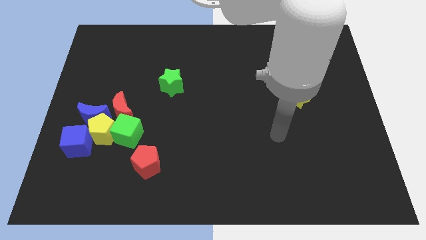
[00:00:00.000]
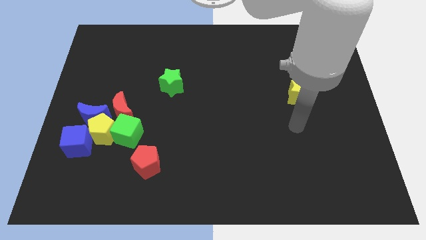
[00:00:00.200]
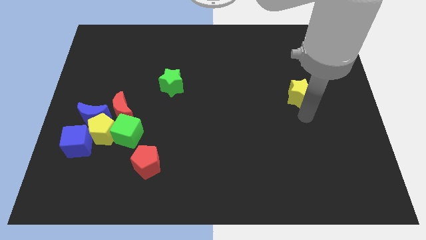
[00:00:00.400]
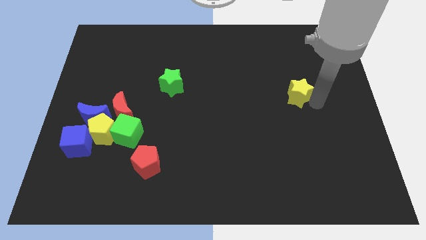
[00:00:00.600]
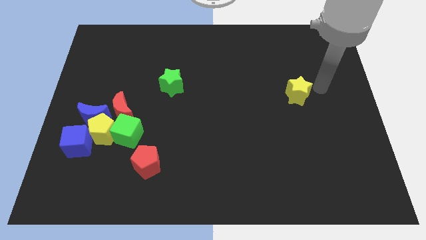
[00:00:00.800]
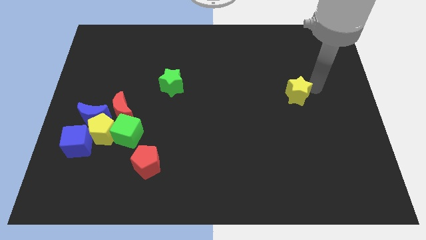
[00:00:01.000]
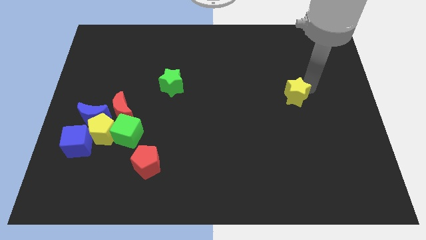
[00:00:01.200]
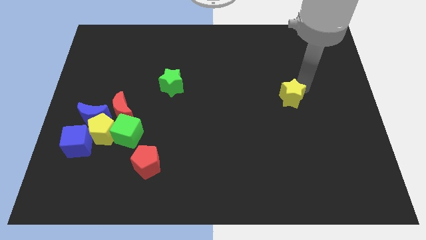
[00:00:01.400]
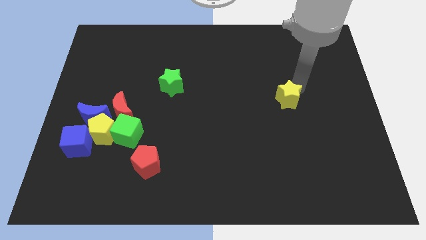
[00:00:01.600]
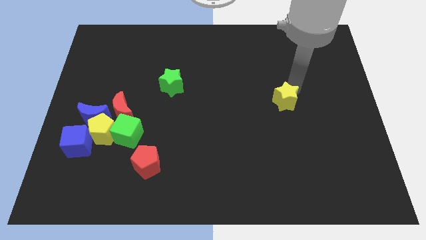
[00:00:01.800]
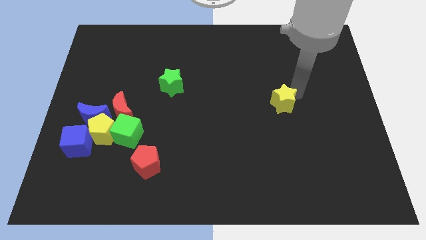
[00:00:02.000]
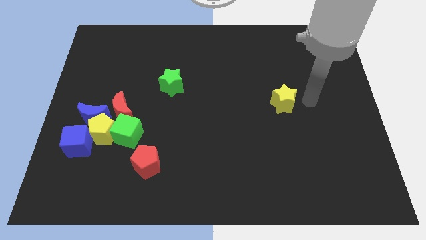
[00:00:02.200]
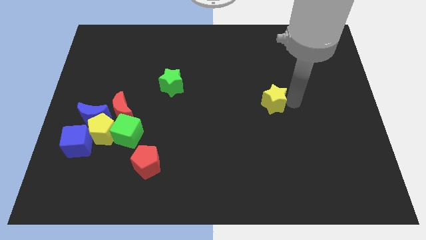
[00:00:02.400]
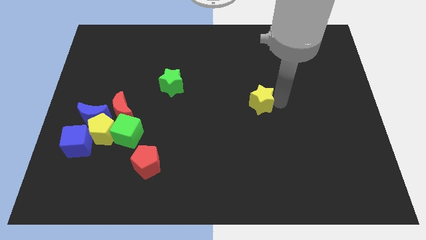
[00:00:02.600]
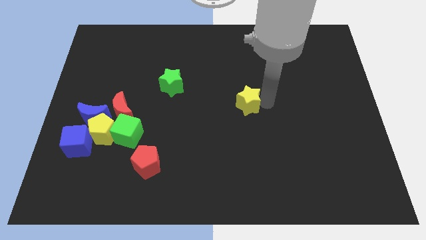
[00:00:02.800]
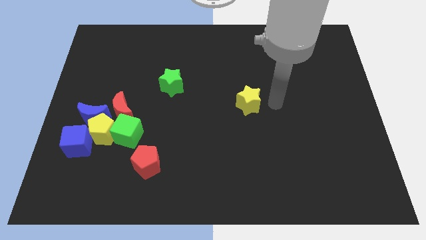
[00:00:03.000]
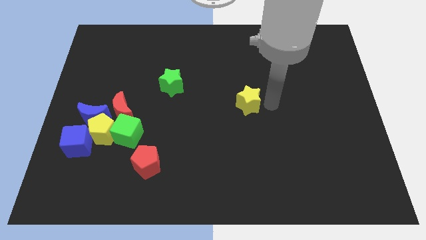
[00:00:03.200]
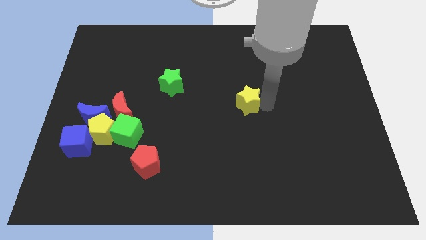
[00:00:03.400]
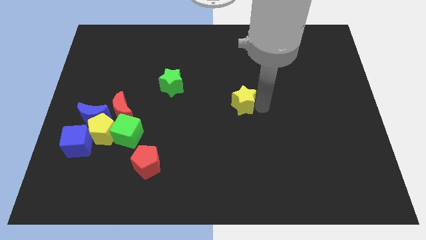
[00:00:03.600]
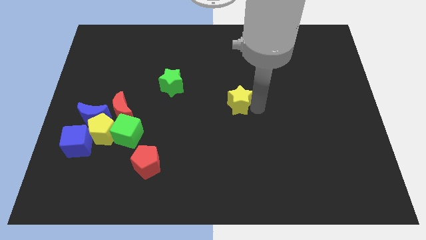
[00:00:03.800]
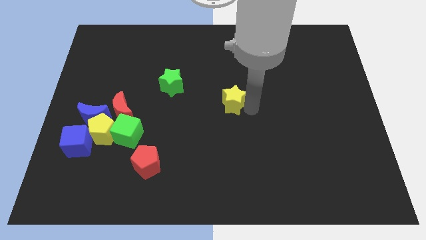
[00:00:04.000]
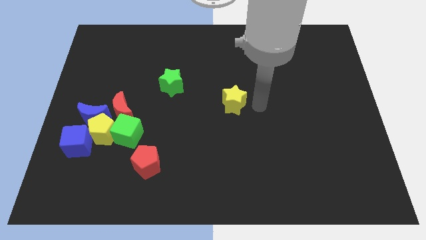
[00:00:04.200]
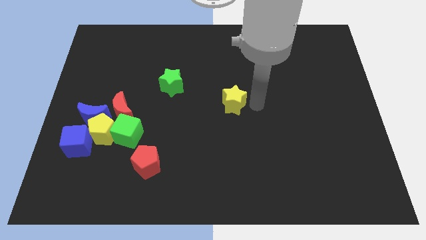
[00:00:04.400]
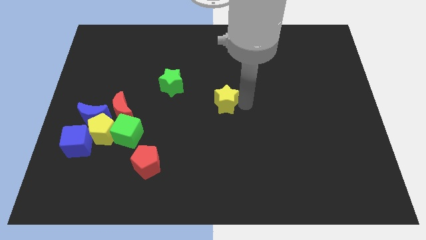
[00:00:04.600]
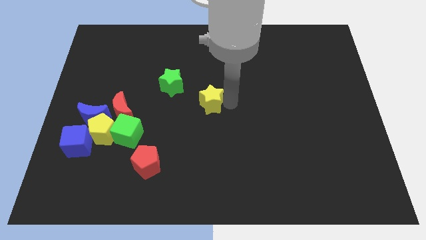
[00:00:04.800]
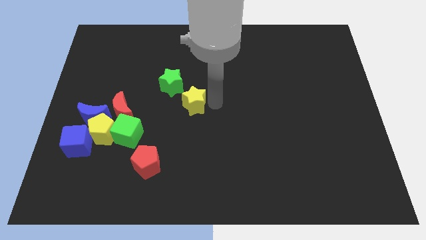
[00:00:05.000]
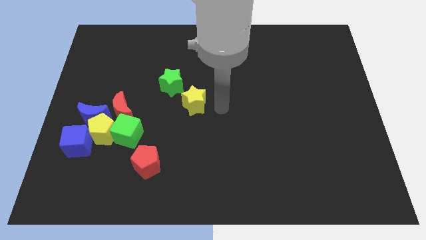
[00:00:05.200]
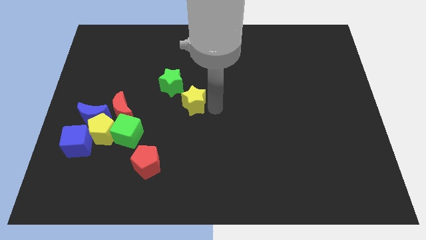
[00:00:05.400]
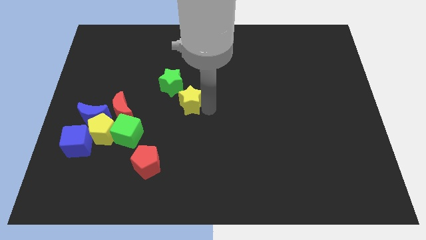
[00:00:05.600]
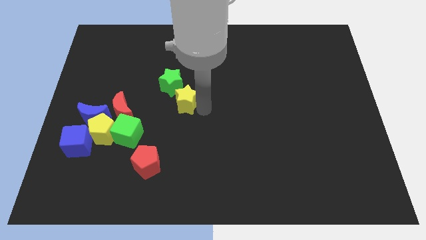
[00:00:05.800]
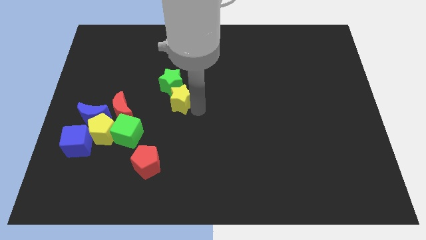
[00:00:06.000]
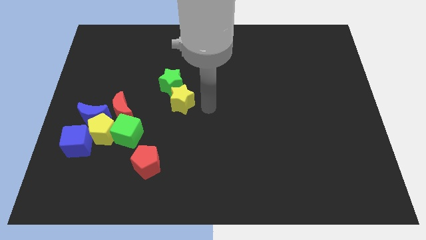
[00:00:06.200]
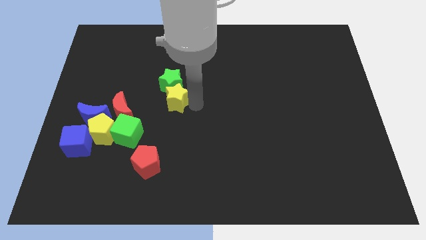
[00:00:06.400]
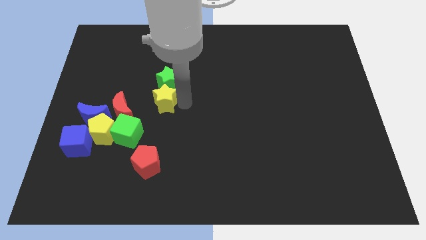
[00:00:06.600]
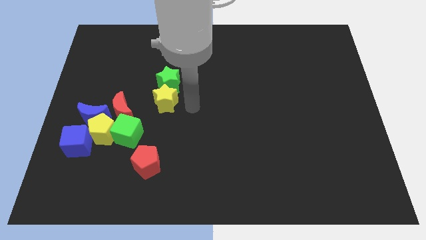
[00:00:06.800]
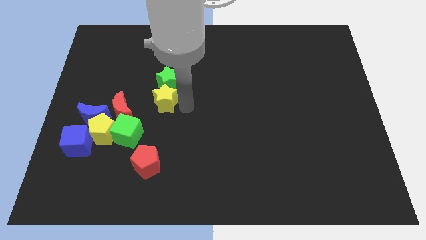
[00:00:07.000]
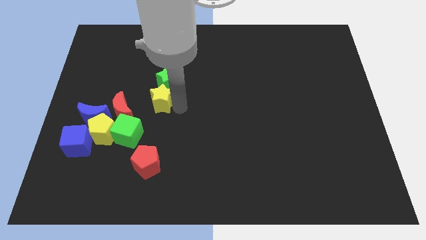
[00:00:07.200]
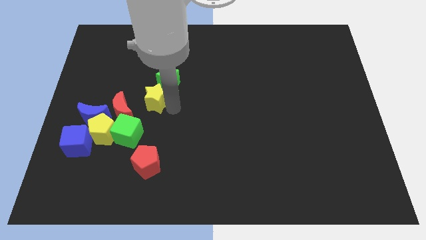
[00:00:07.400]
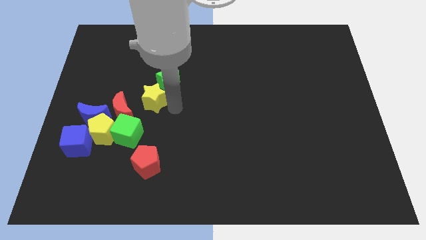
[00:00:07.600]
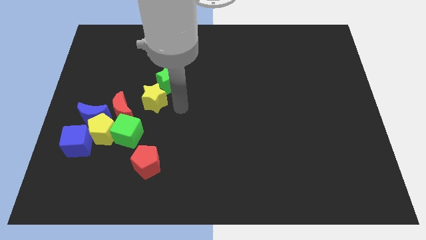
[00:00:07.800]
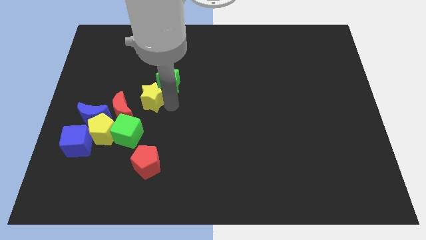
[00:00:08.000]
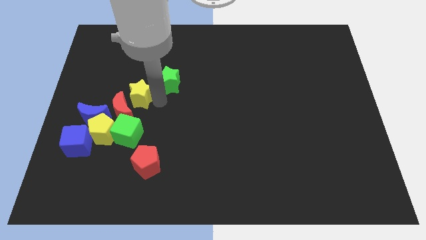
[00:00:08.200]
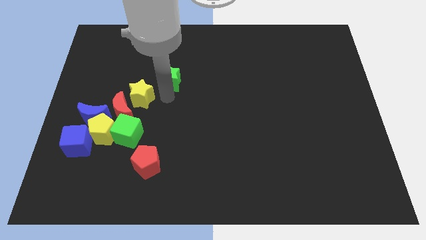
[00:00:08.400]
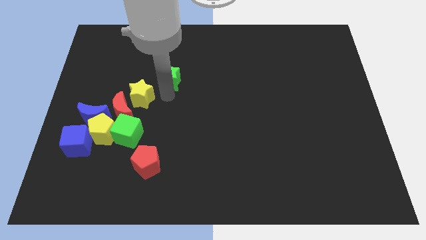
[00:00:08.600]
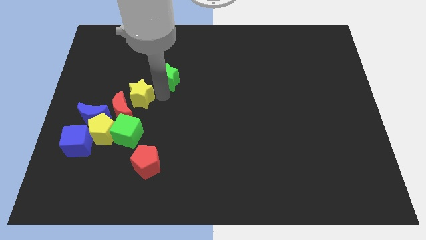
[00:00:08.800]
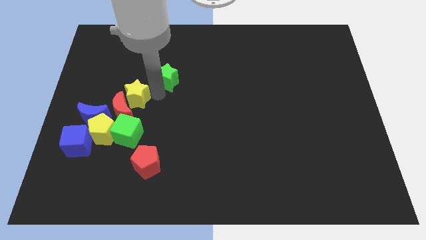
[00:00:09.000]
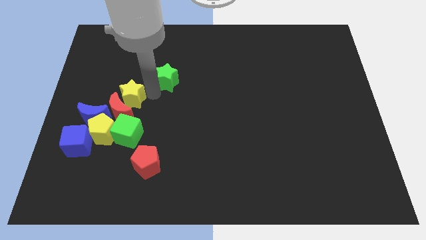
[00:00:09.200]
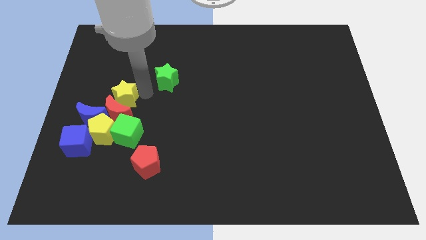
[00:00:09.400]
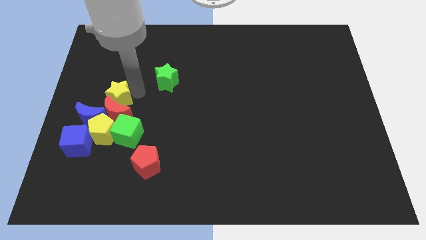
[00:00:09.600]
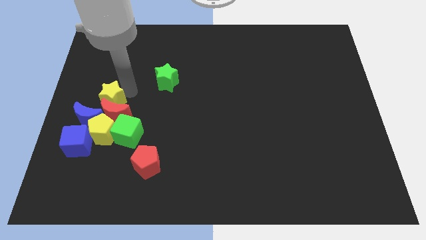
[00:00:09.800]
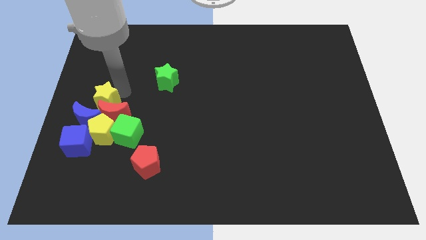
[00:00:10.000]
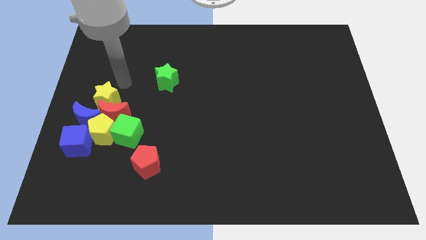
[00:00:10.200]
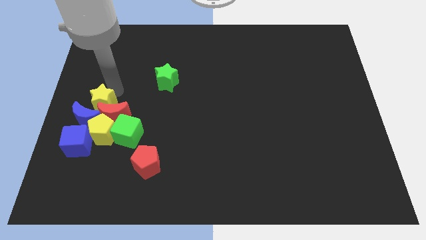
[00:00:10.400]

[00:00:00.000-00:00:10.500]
put the yellow star to the blue moon

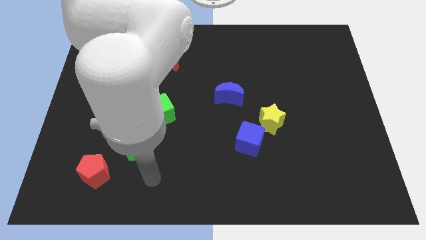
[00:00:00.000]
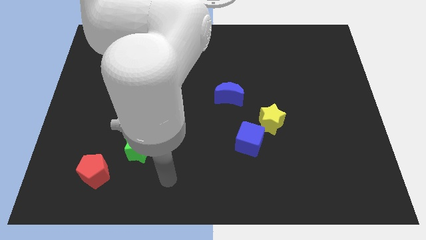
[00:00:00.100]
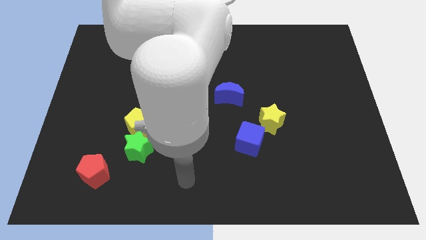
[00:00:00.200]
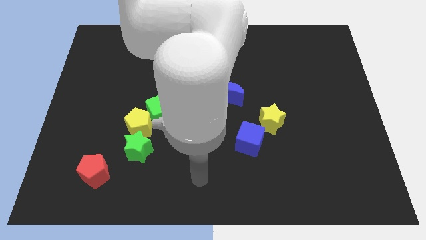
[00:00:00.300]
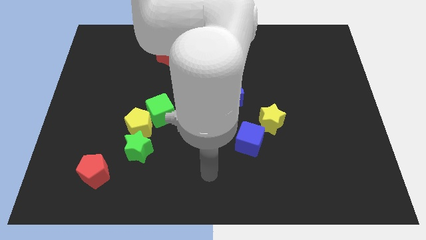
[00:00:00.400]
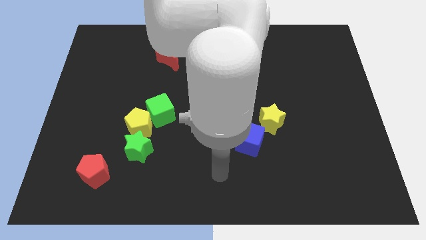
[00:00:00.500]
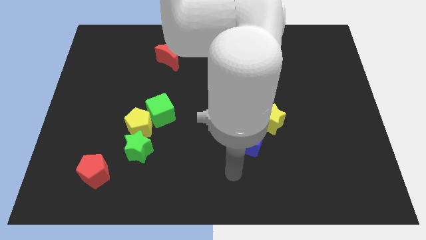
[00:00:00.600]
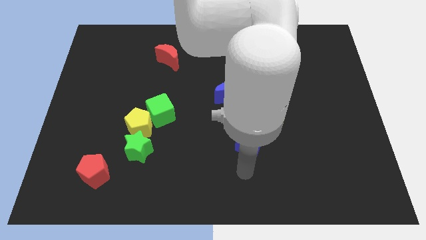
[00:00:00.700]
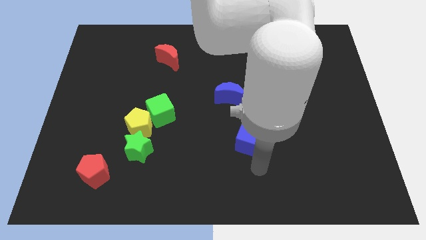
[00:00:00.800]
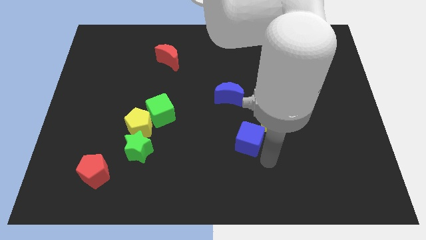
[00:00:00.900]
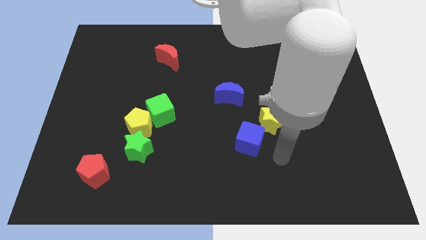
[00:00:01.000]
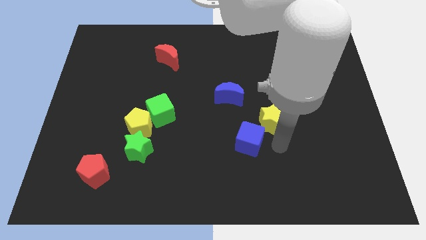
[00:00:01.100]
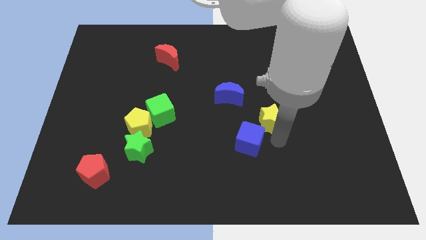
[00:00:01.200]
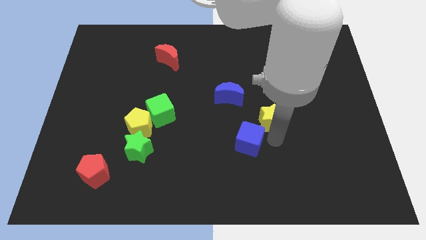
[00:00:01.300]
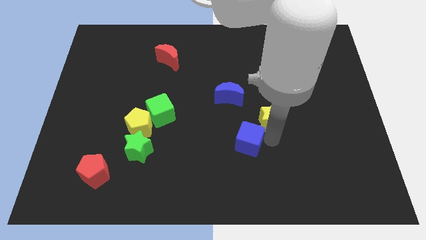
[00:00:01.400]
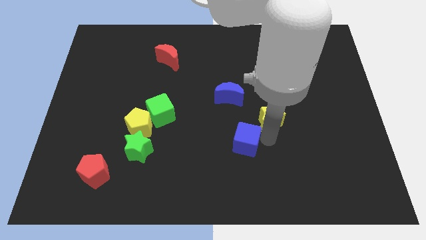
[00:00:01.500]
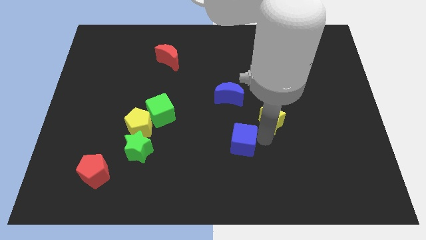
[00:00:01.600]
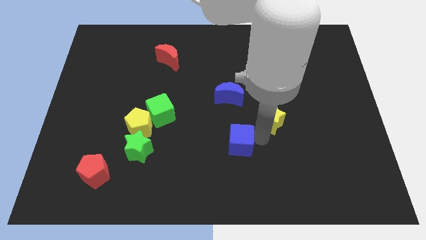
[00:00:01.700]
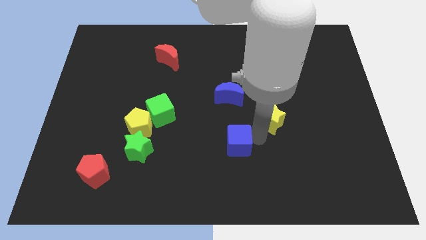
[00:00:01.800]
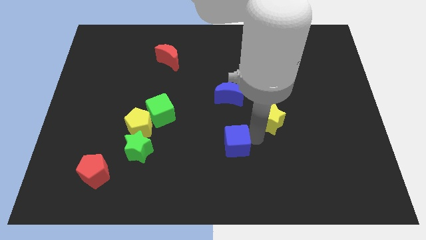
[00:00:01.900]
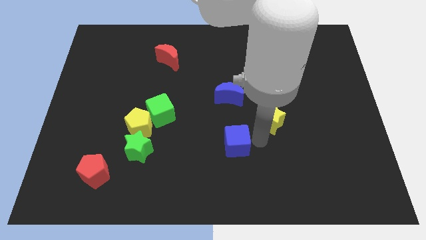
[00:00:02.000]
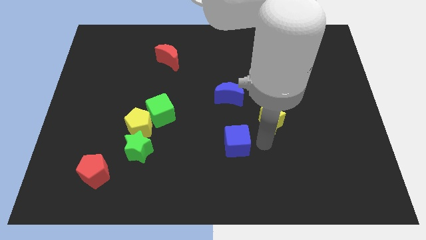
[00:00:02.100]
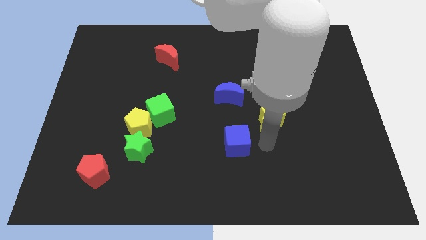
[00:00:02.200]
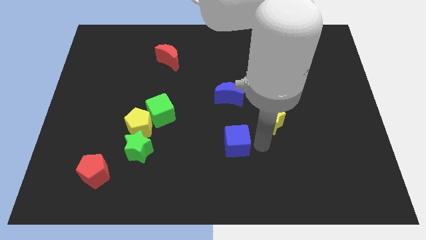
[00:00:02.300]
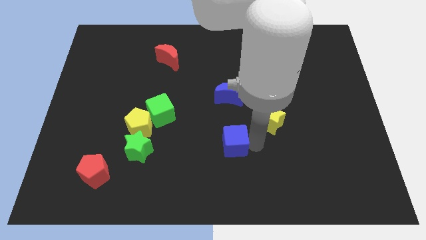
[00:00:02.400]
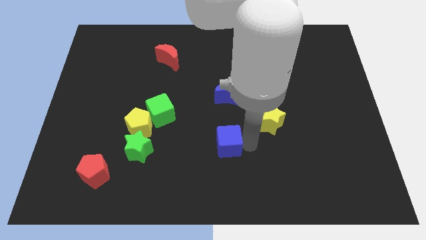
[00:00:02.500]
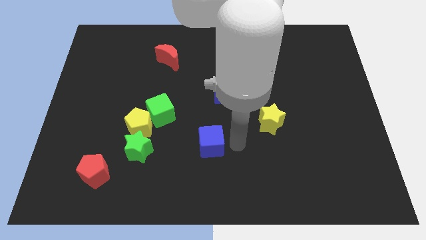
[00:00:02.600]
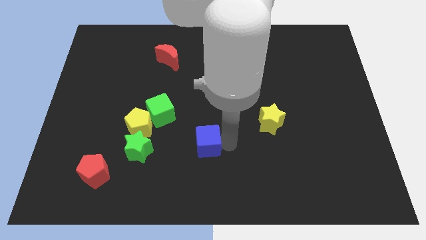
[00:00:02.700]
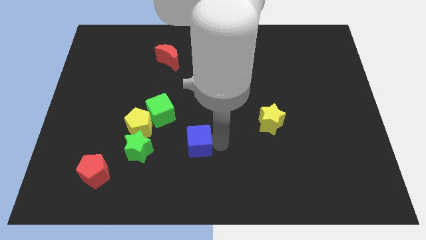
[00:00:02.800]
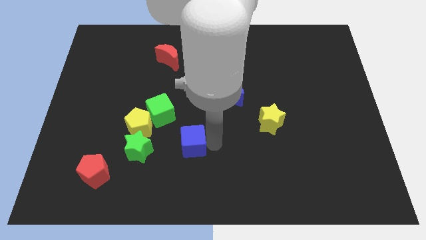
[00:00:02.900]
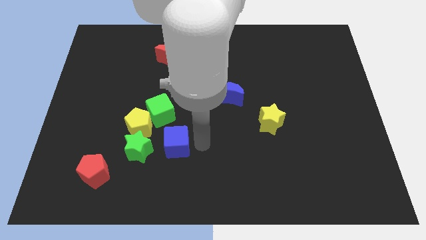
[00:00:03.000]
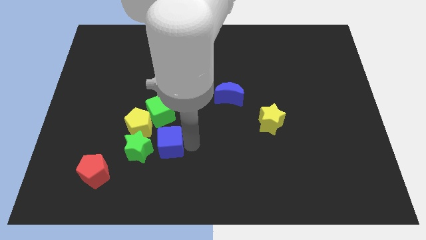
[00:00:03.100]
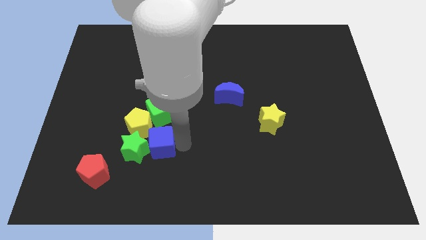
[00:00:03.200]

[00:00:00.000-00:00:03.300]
move the blue cube close to the green star
